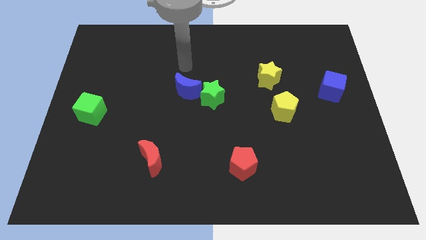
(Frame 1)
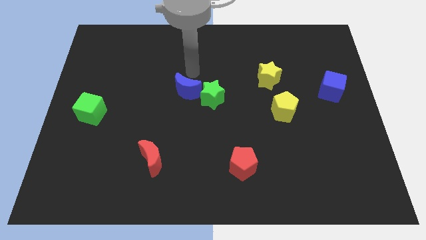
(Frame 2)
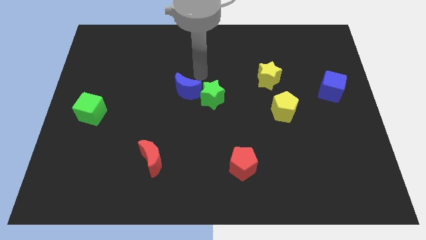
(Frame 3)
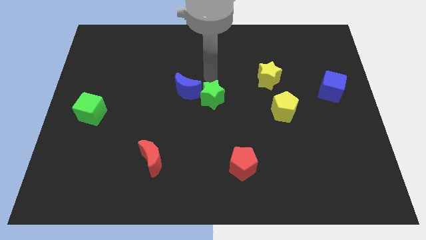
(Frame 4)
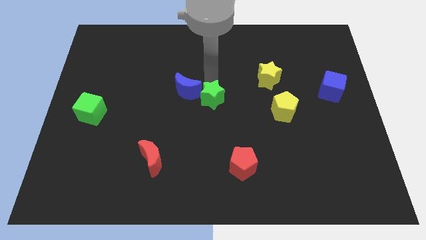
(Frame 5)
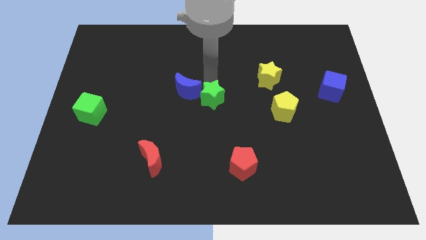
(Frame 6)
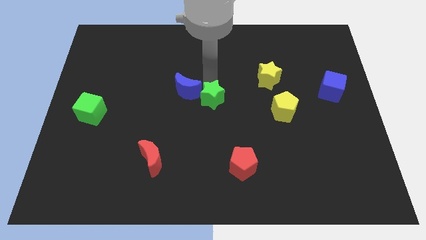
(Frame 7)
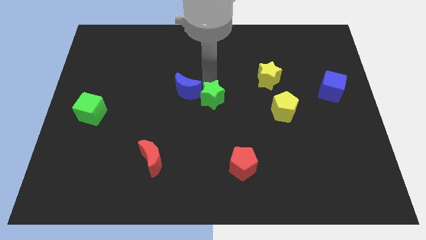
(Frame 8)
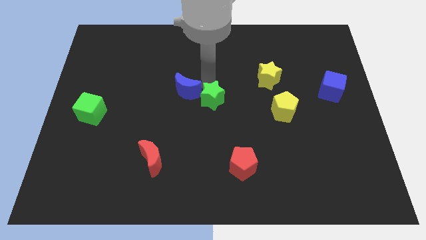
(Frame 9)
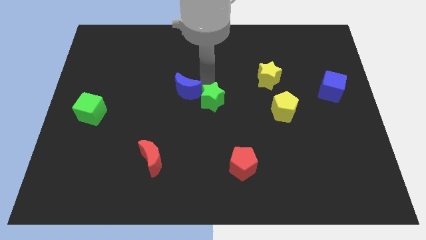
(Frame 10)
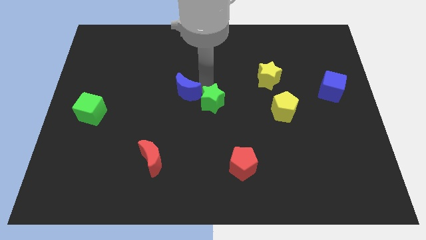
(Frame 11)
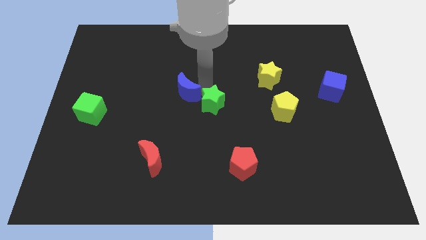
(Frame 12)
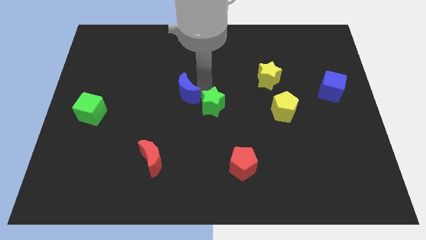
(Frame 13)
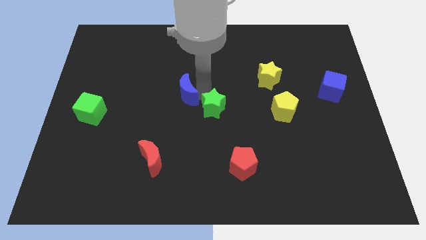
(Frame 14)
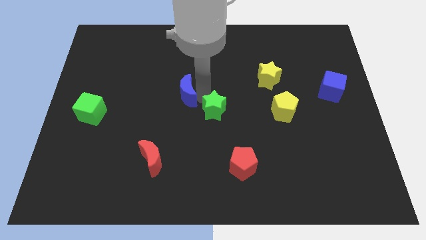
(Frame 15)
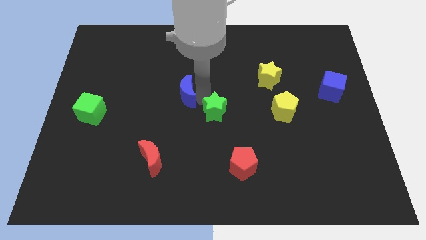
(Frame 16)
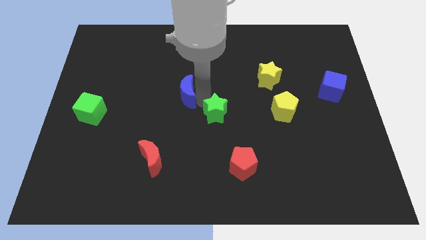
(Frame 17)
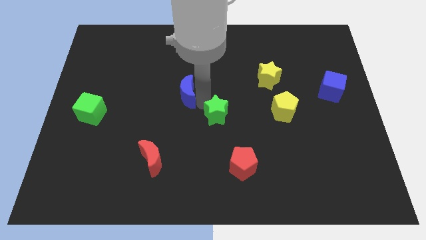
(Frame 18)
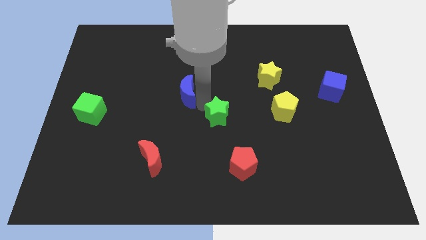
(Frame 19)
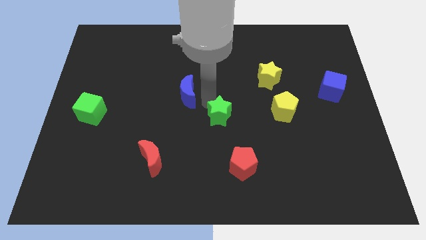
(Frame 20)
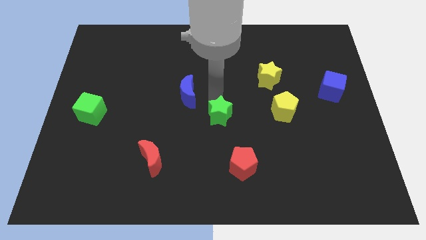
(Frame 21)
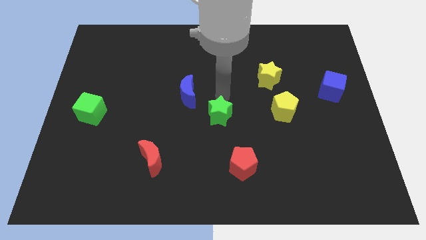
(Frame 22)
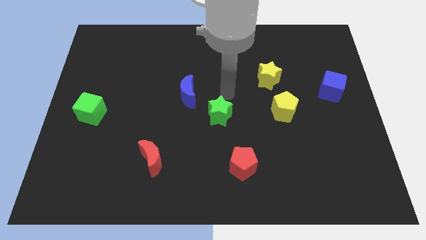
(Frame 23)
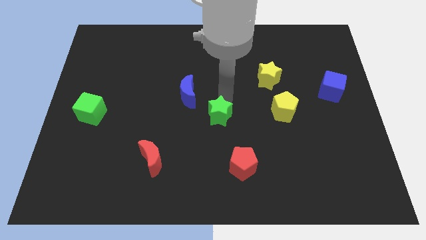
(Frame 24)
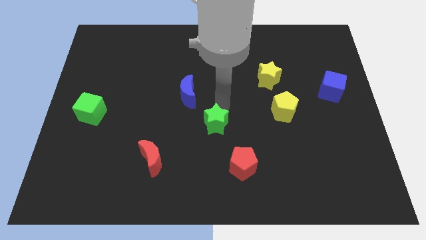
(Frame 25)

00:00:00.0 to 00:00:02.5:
push the green star downwards a bit

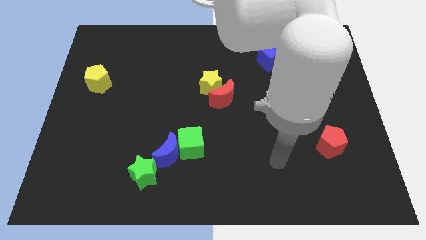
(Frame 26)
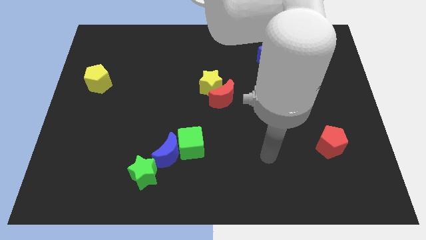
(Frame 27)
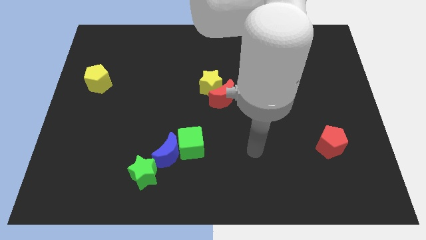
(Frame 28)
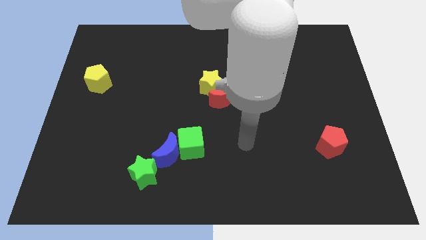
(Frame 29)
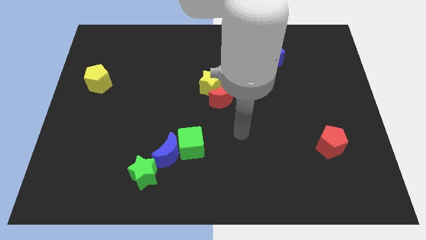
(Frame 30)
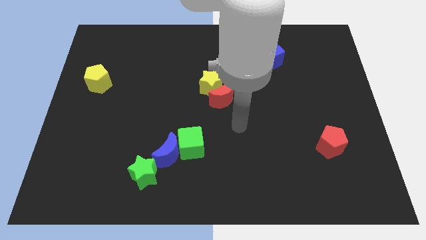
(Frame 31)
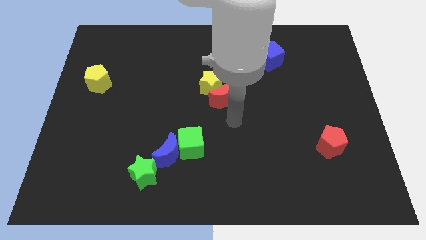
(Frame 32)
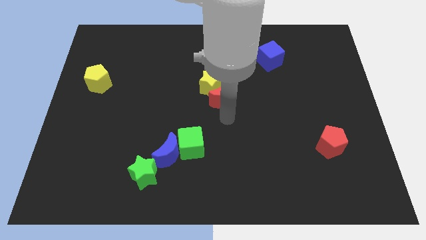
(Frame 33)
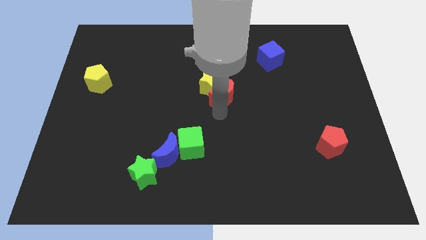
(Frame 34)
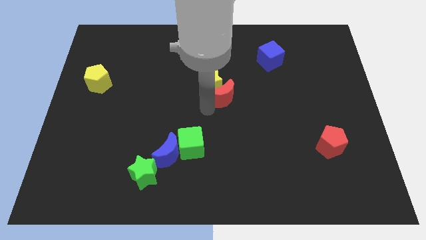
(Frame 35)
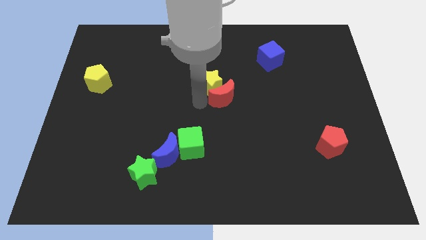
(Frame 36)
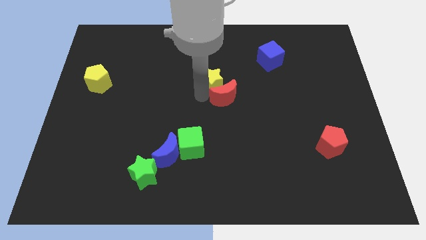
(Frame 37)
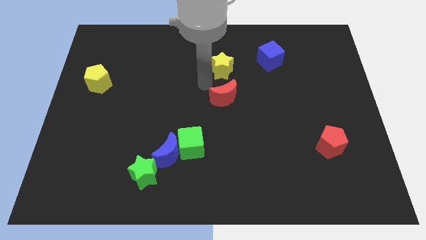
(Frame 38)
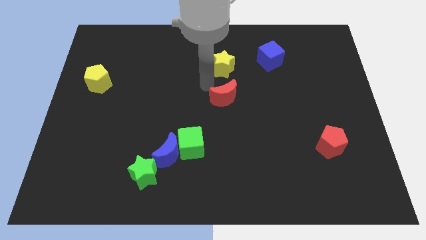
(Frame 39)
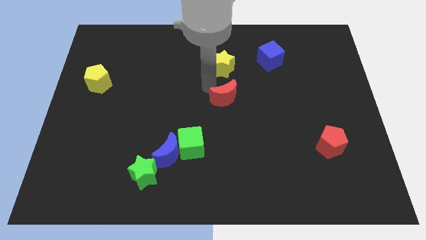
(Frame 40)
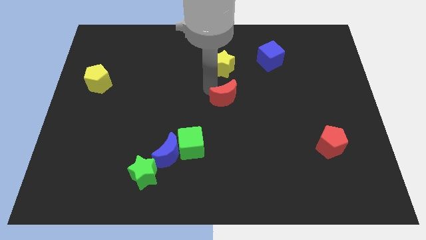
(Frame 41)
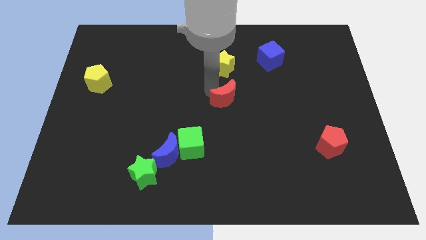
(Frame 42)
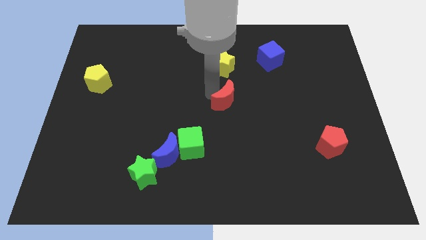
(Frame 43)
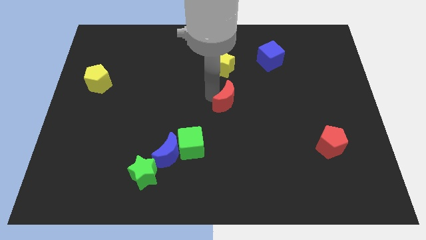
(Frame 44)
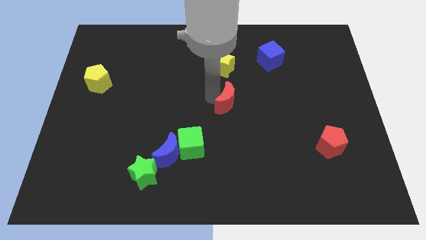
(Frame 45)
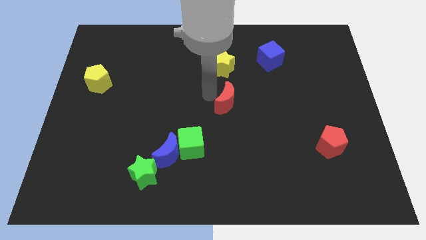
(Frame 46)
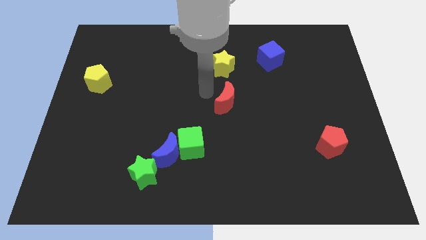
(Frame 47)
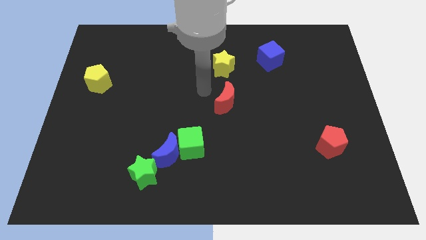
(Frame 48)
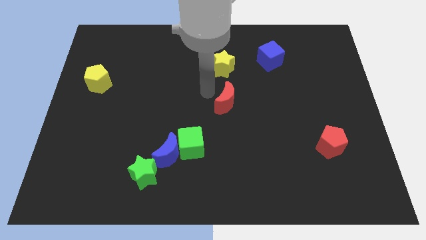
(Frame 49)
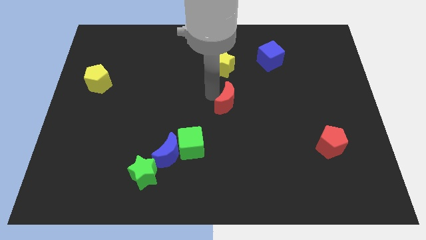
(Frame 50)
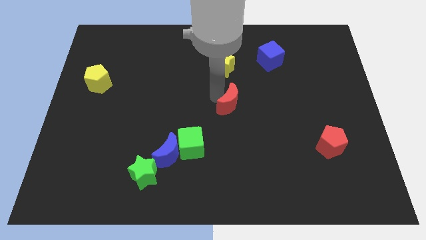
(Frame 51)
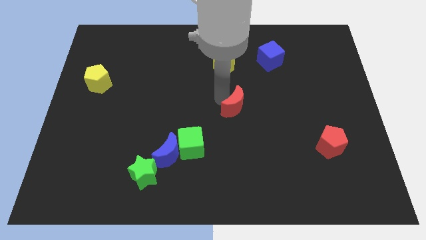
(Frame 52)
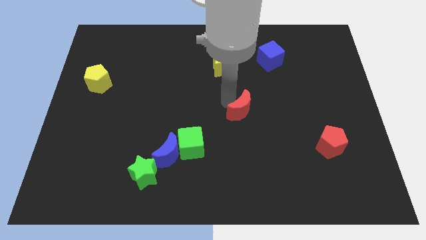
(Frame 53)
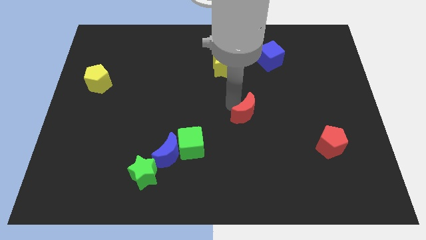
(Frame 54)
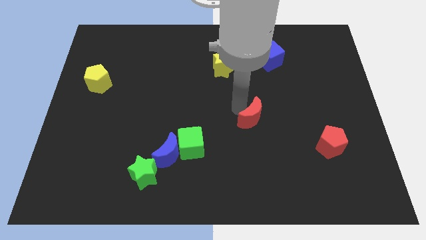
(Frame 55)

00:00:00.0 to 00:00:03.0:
push the red moon a bit downwards and then to the right

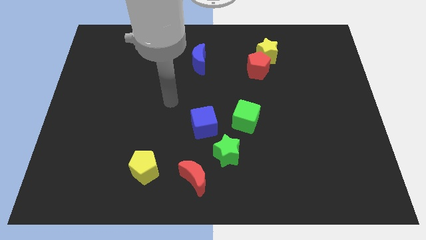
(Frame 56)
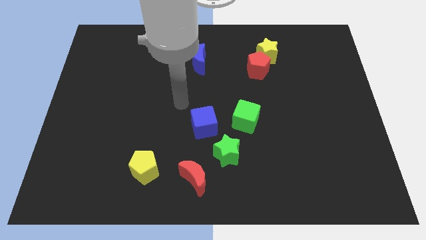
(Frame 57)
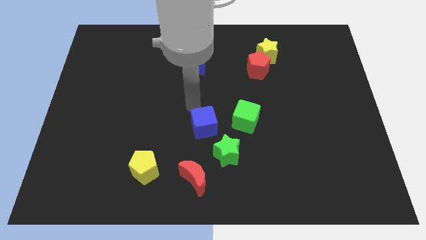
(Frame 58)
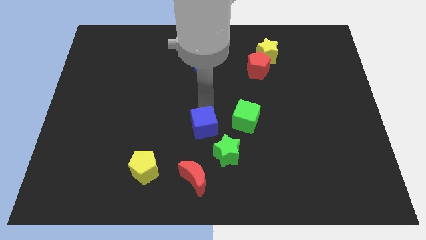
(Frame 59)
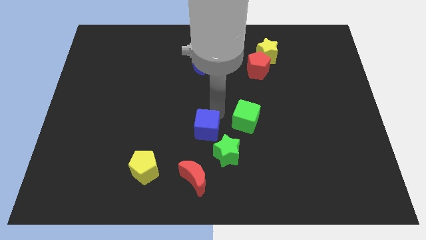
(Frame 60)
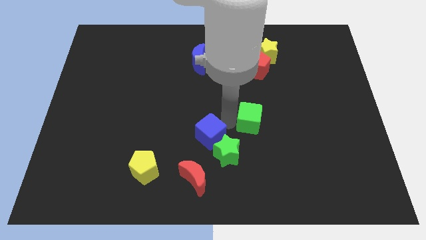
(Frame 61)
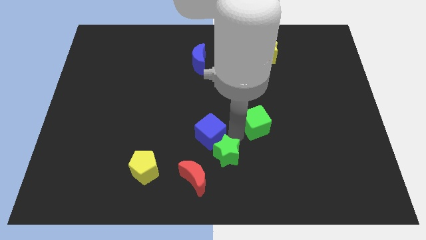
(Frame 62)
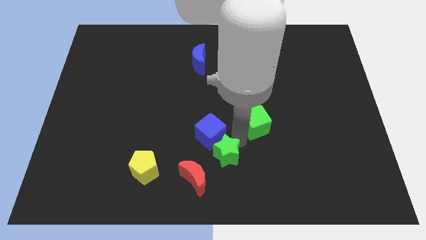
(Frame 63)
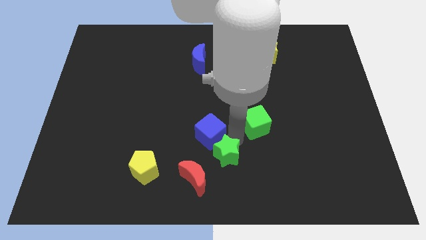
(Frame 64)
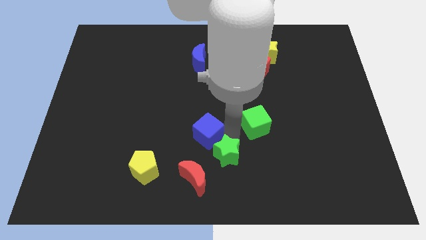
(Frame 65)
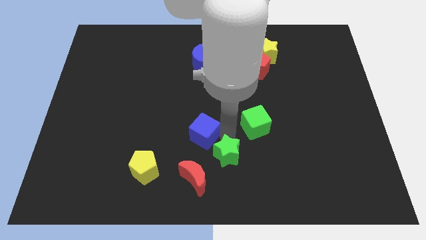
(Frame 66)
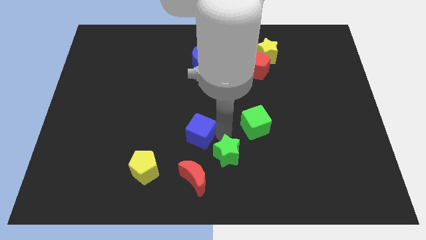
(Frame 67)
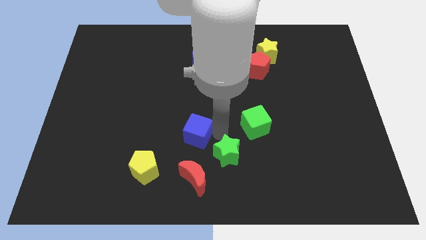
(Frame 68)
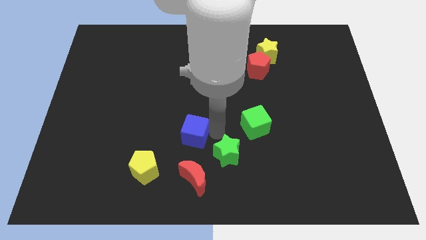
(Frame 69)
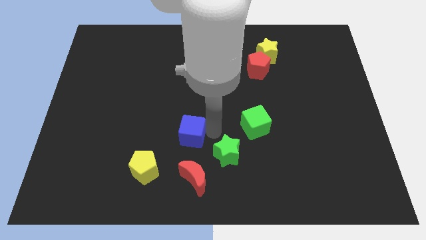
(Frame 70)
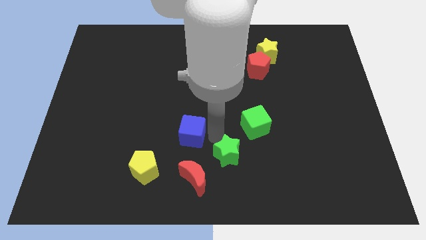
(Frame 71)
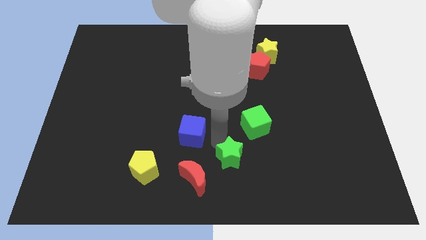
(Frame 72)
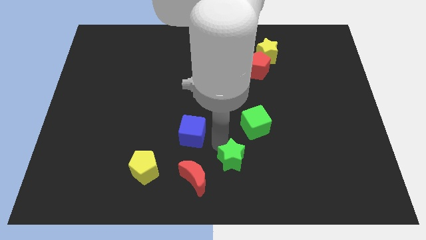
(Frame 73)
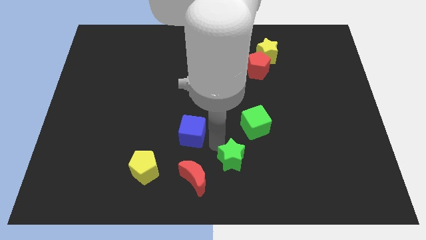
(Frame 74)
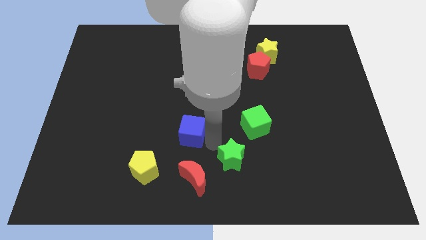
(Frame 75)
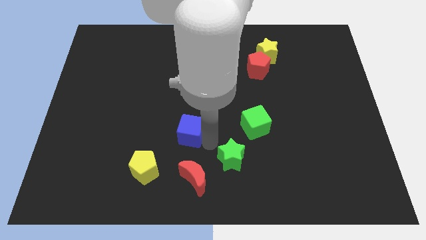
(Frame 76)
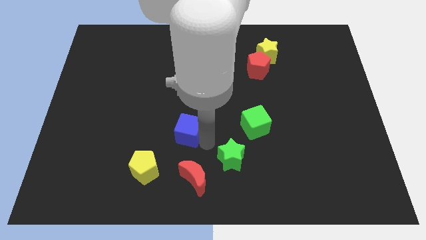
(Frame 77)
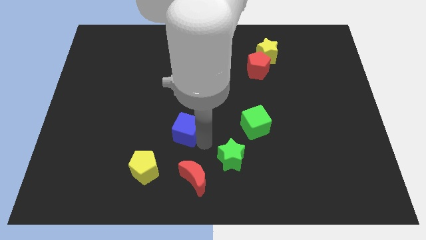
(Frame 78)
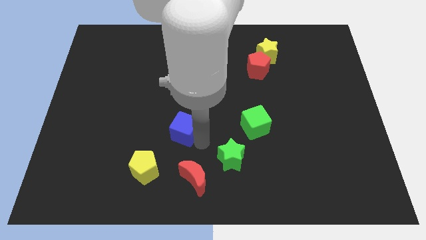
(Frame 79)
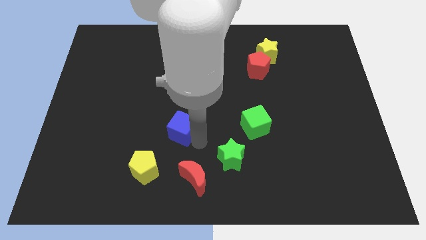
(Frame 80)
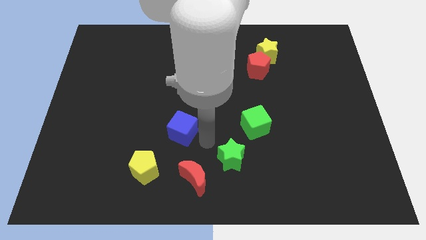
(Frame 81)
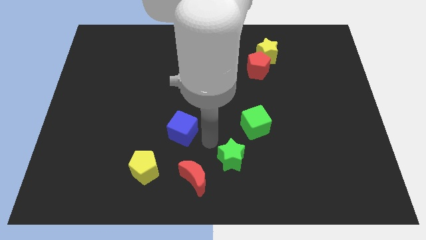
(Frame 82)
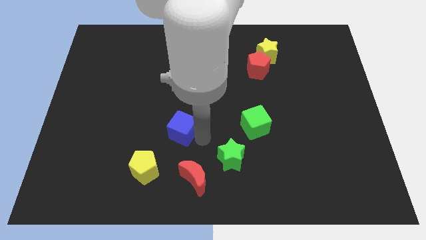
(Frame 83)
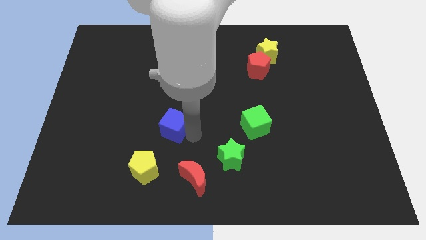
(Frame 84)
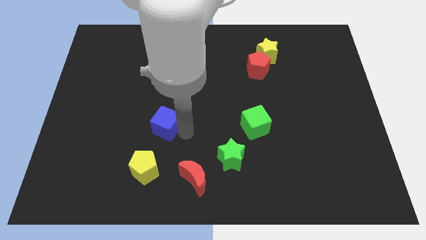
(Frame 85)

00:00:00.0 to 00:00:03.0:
slide the blue cube left a little
